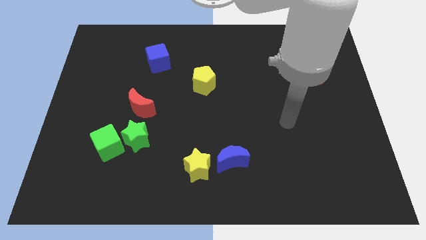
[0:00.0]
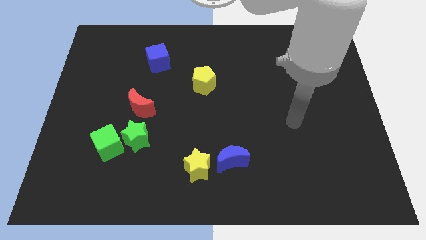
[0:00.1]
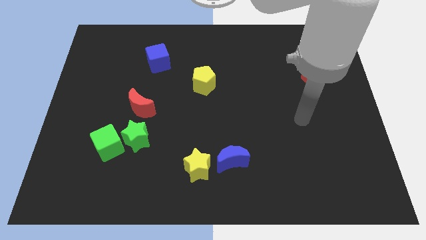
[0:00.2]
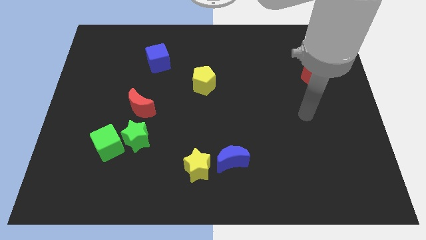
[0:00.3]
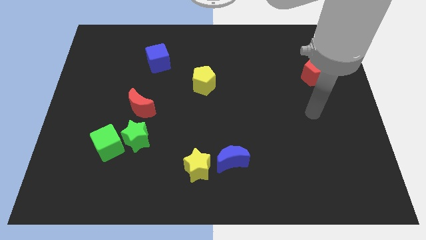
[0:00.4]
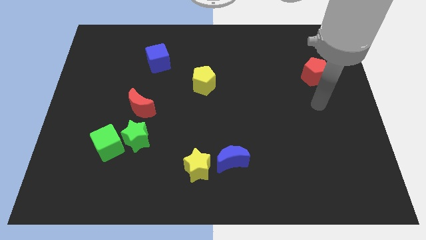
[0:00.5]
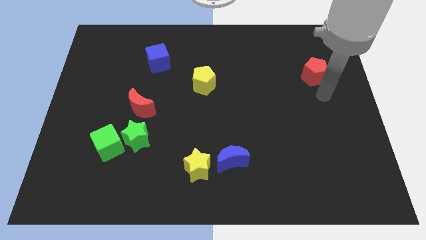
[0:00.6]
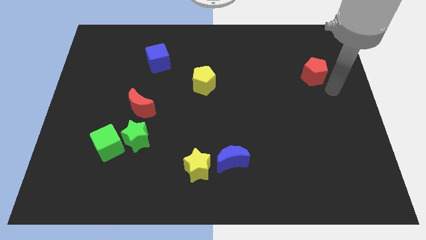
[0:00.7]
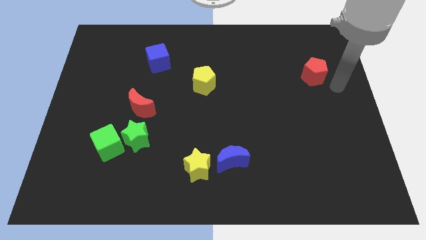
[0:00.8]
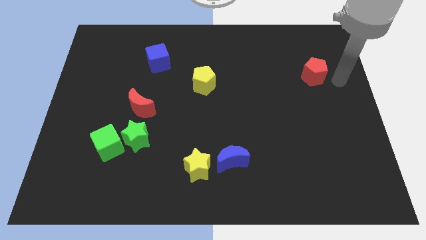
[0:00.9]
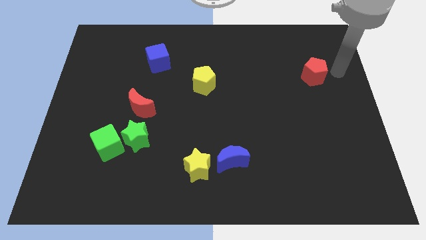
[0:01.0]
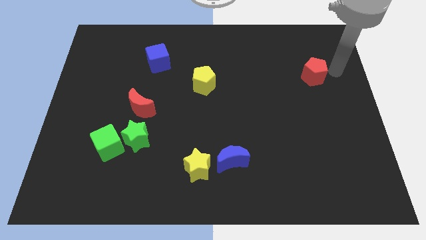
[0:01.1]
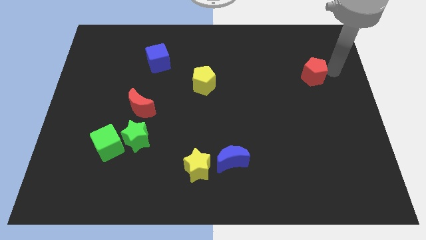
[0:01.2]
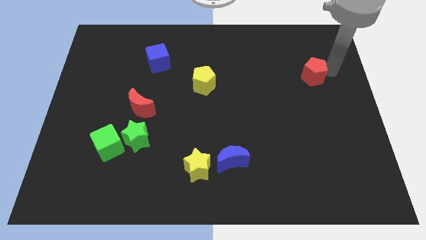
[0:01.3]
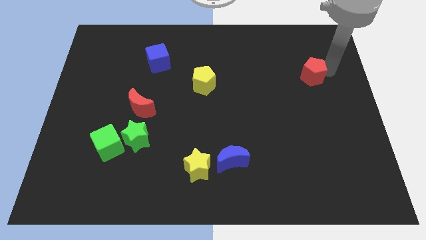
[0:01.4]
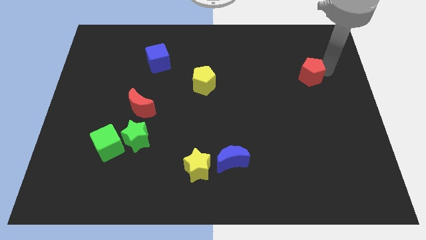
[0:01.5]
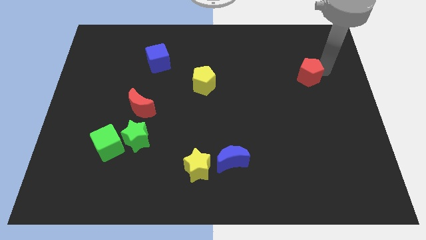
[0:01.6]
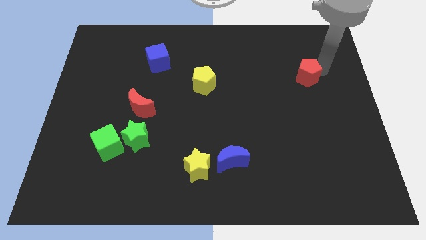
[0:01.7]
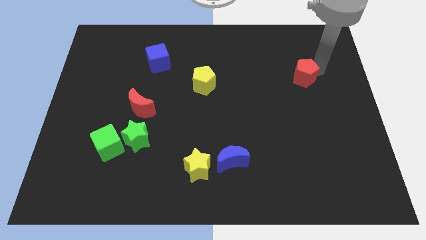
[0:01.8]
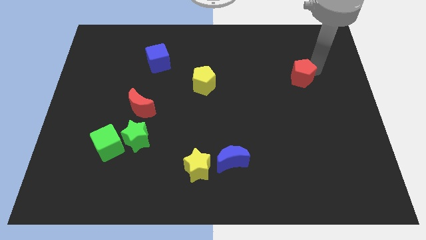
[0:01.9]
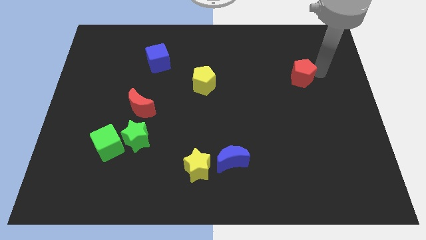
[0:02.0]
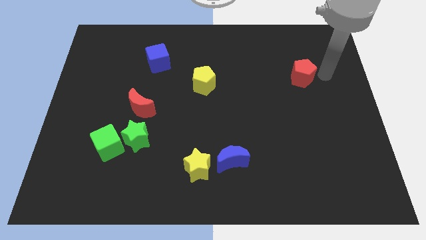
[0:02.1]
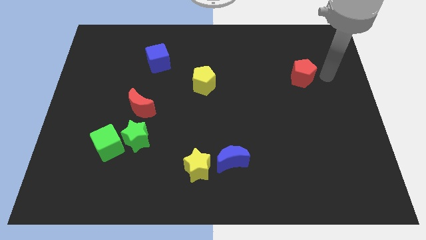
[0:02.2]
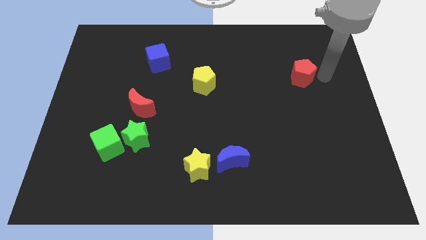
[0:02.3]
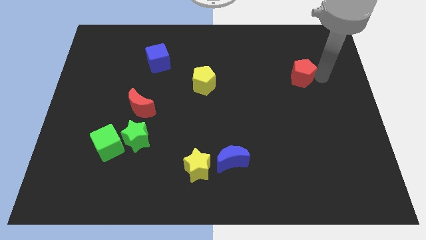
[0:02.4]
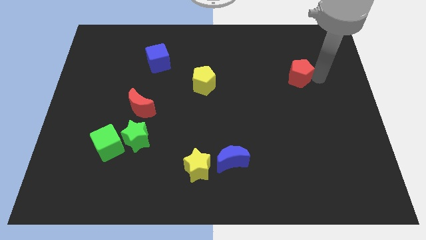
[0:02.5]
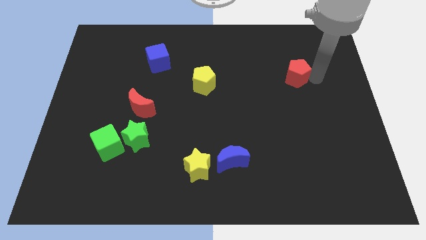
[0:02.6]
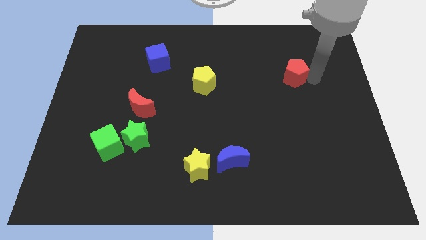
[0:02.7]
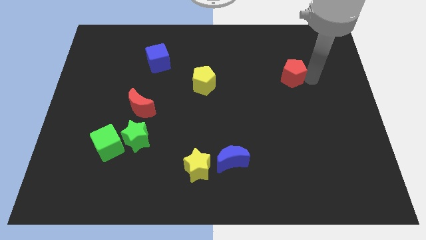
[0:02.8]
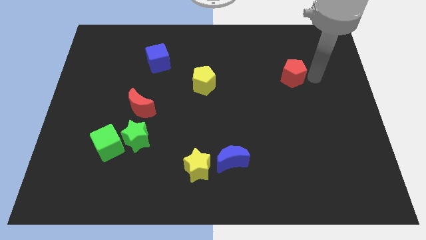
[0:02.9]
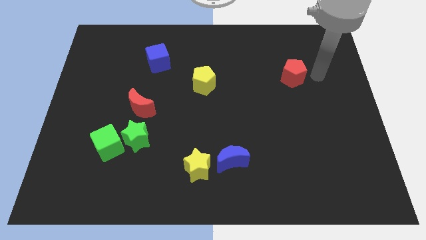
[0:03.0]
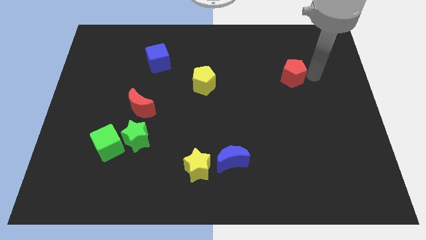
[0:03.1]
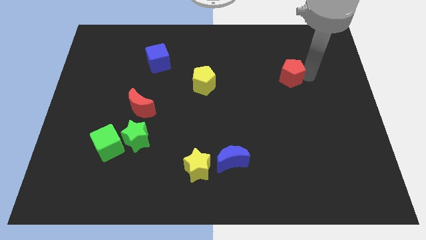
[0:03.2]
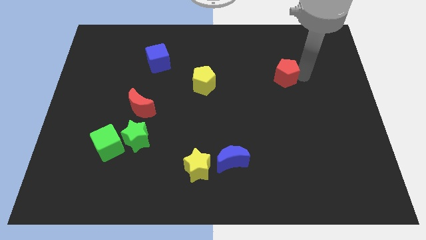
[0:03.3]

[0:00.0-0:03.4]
push the red pentagon a little left

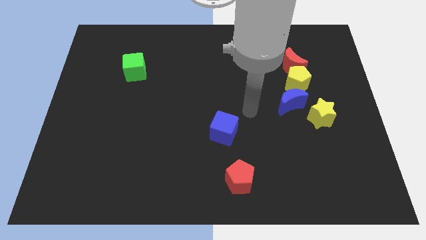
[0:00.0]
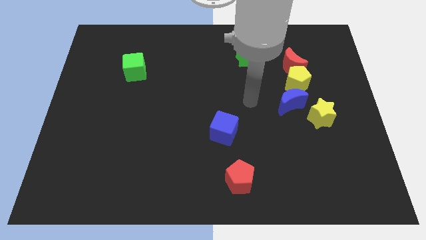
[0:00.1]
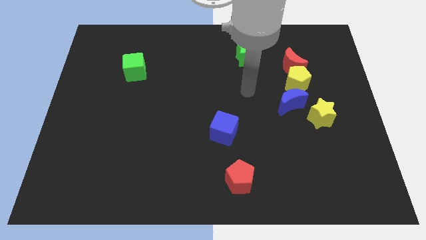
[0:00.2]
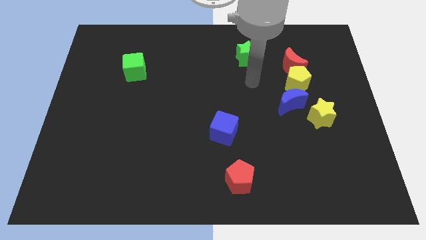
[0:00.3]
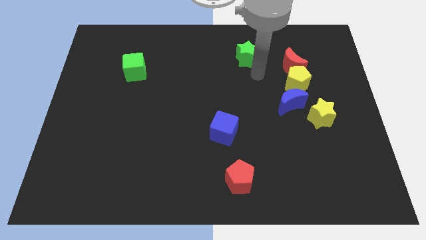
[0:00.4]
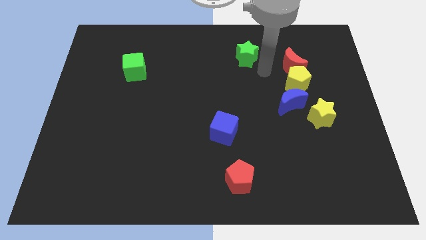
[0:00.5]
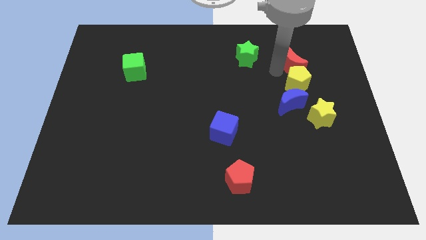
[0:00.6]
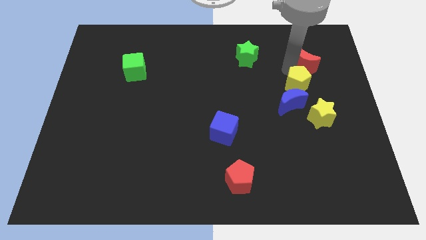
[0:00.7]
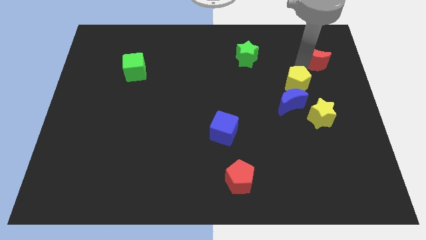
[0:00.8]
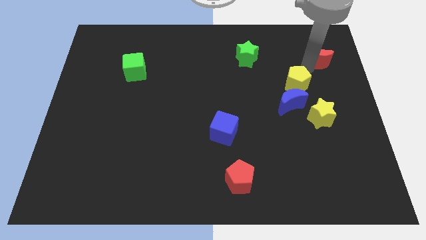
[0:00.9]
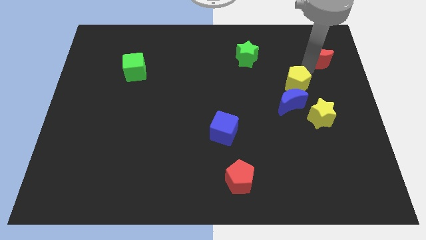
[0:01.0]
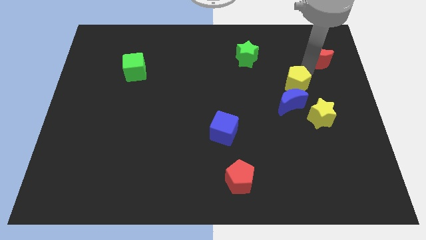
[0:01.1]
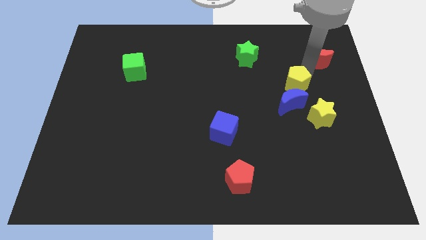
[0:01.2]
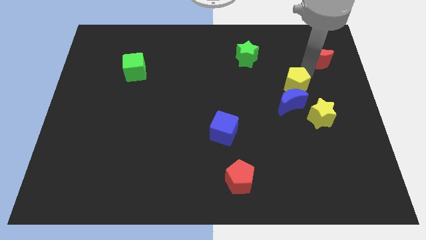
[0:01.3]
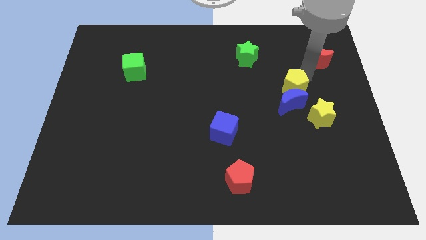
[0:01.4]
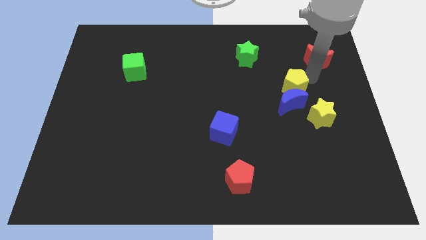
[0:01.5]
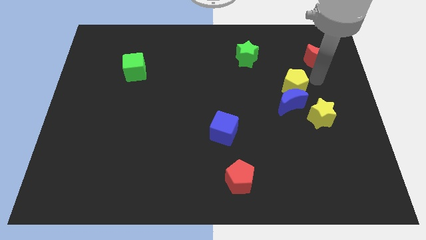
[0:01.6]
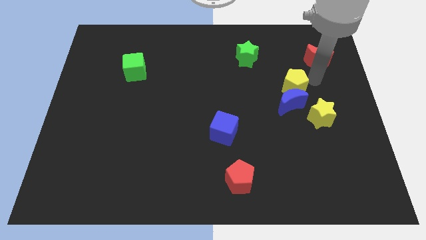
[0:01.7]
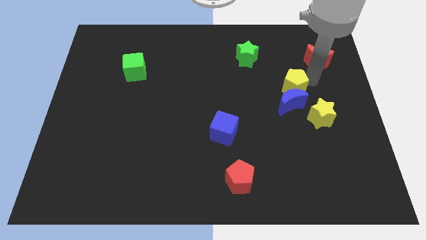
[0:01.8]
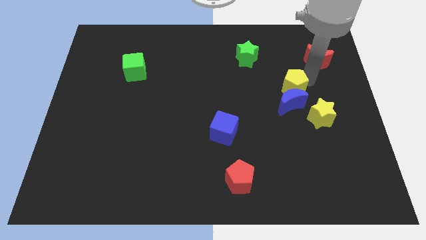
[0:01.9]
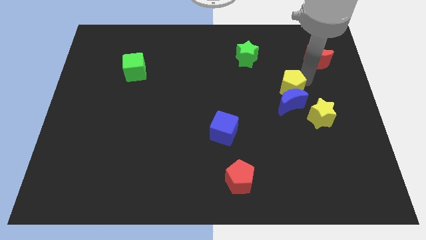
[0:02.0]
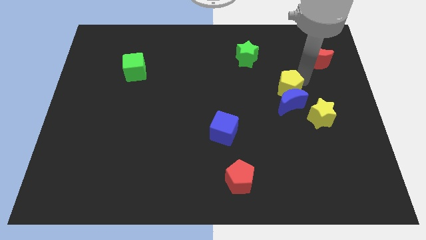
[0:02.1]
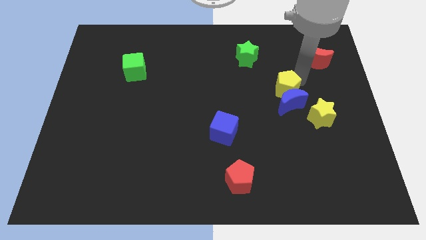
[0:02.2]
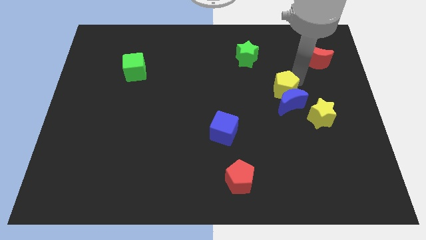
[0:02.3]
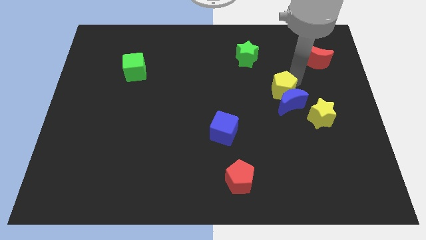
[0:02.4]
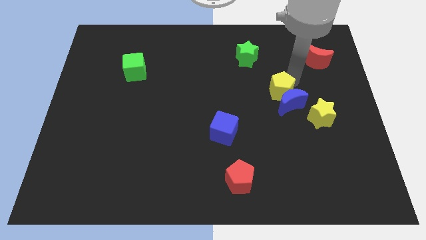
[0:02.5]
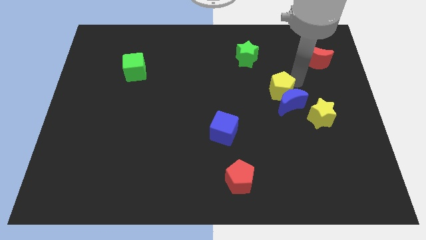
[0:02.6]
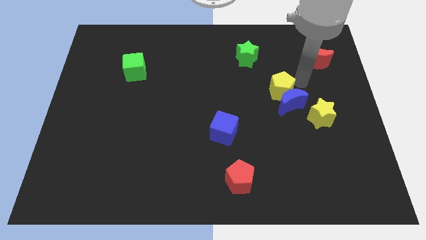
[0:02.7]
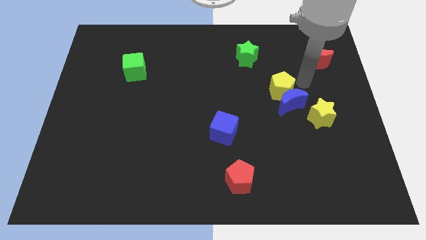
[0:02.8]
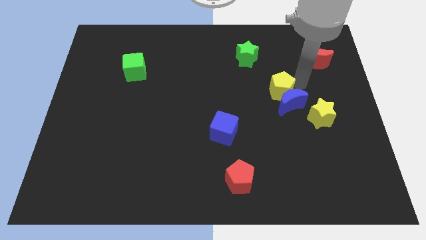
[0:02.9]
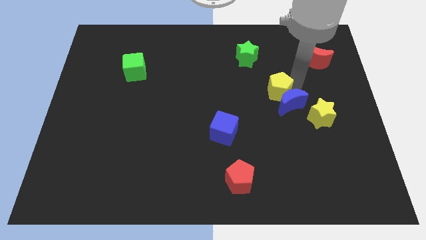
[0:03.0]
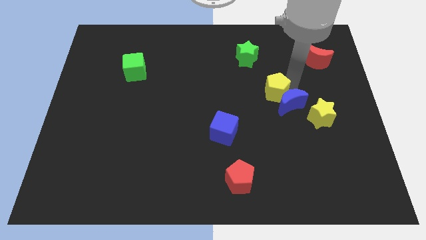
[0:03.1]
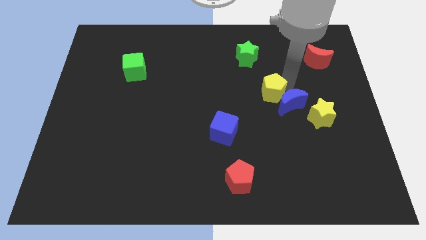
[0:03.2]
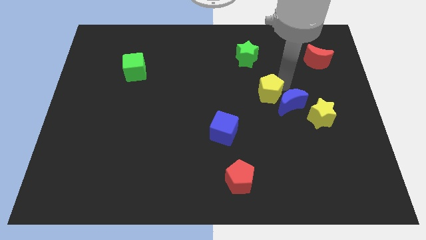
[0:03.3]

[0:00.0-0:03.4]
slightly move the yellow pentagon downwards and left

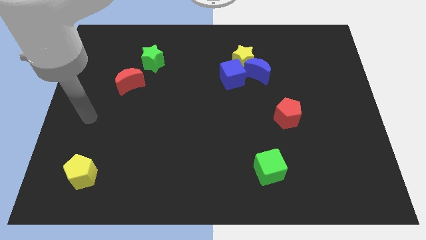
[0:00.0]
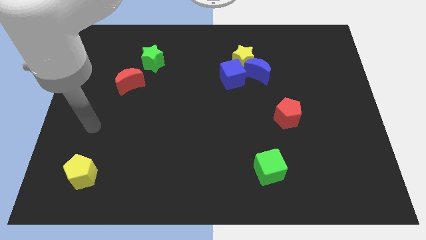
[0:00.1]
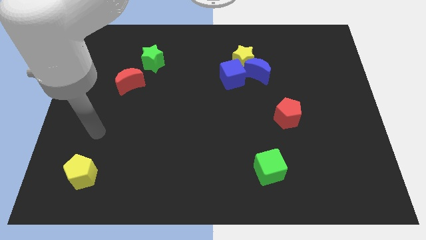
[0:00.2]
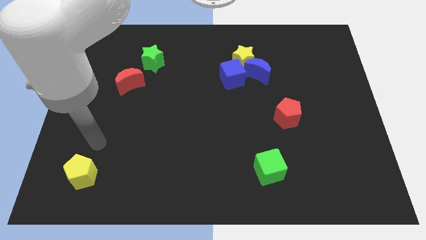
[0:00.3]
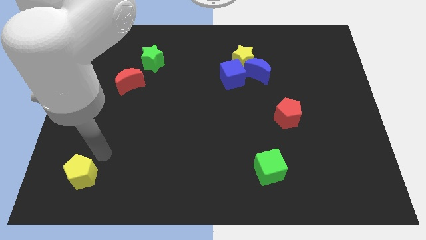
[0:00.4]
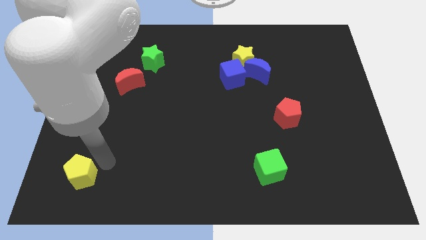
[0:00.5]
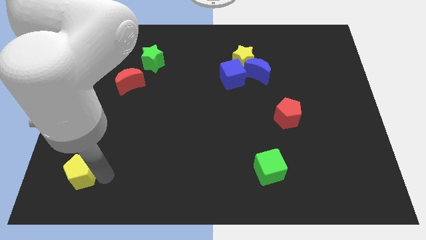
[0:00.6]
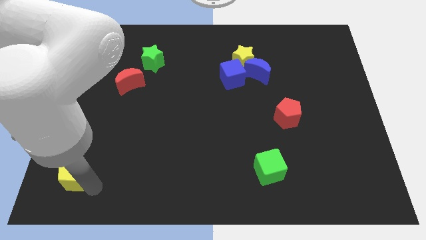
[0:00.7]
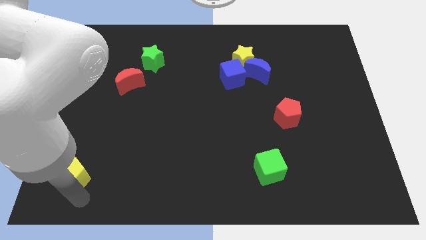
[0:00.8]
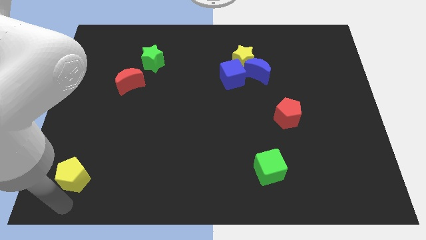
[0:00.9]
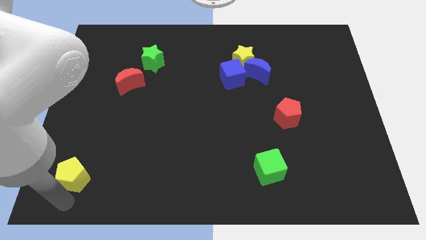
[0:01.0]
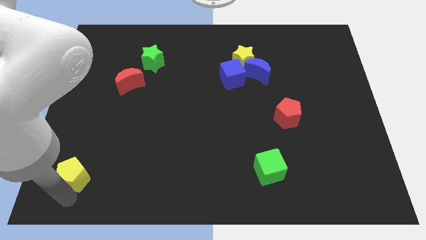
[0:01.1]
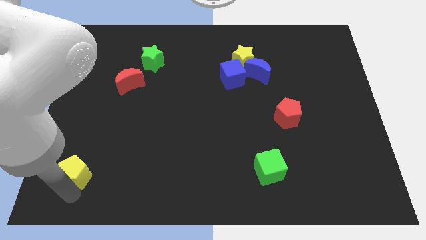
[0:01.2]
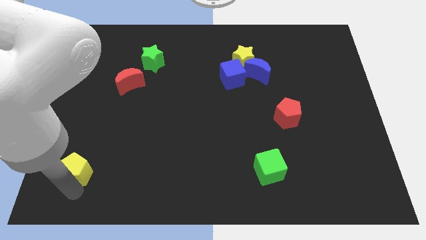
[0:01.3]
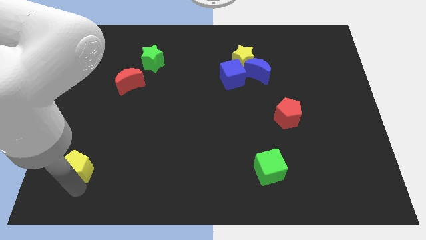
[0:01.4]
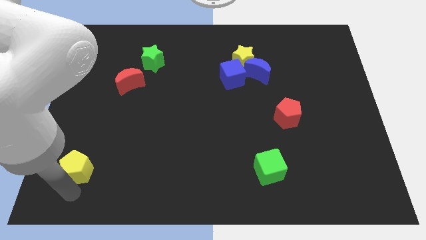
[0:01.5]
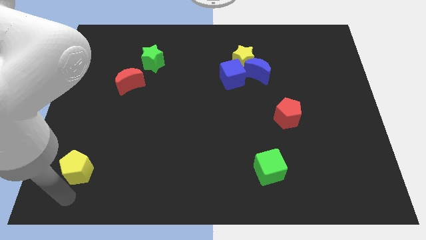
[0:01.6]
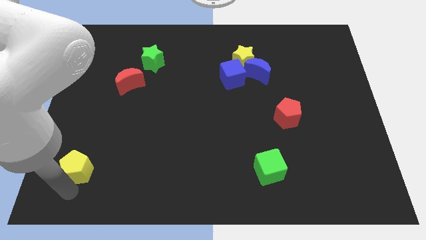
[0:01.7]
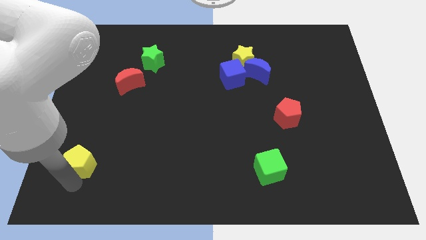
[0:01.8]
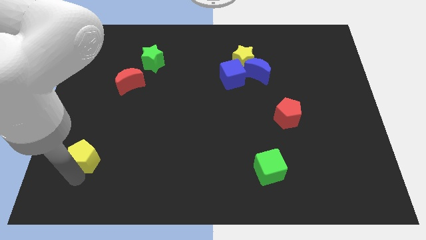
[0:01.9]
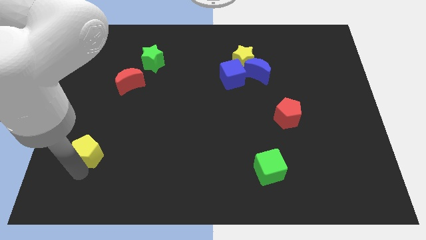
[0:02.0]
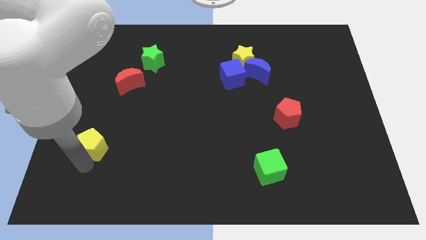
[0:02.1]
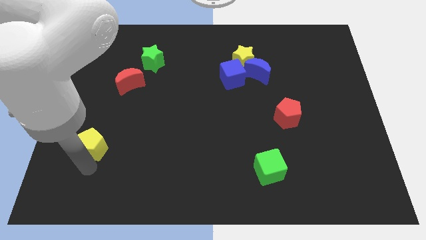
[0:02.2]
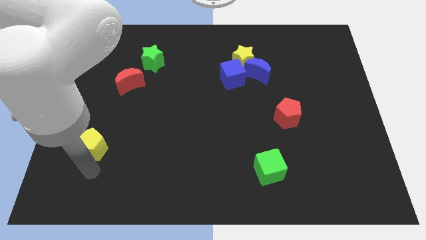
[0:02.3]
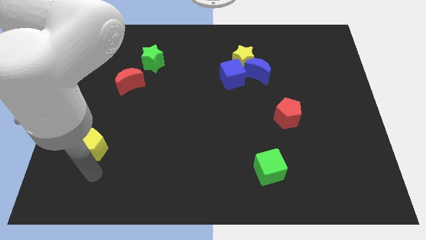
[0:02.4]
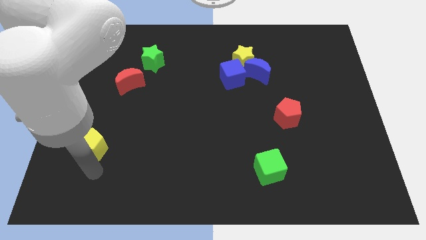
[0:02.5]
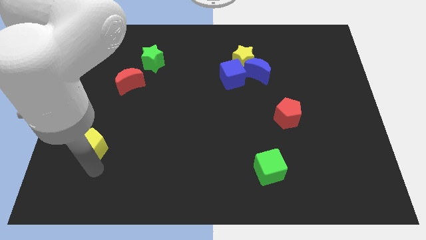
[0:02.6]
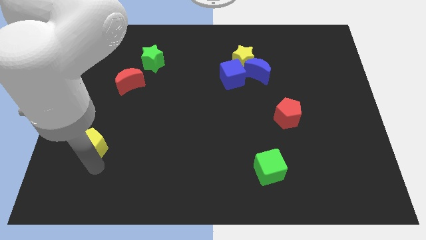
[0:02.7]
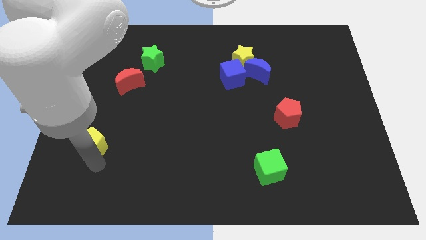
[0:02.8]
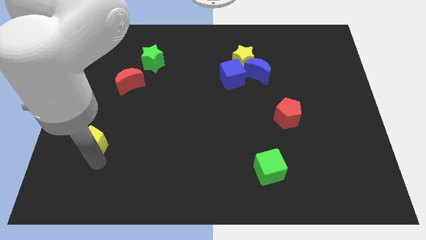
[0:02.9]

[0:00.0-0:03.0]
slightly push the yellow pentagon upwards
